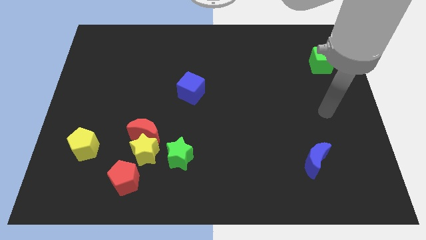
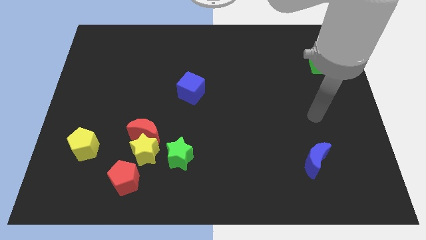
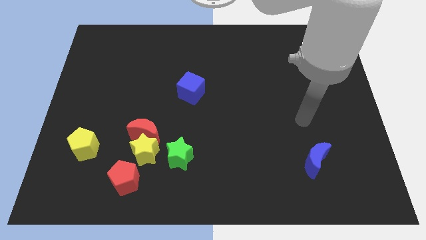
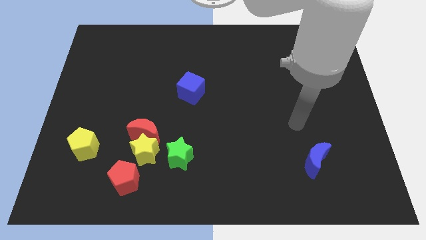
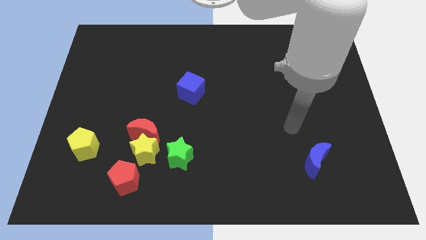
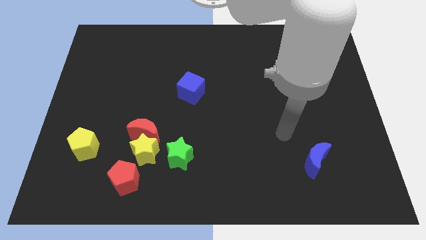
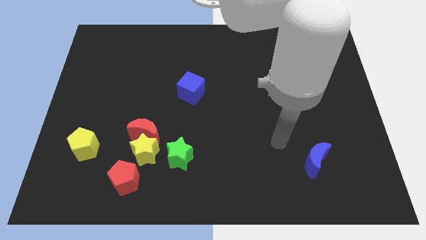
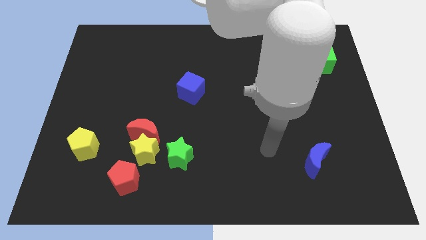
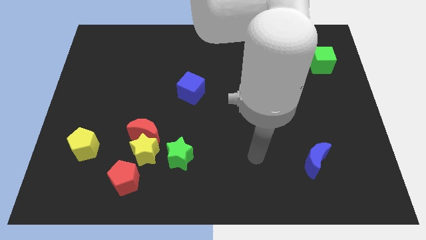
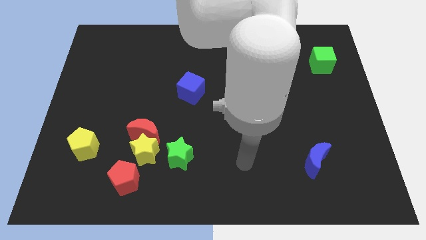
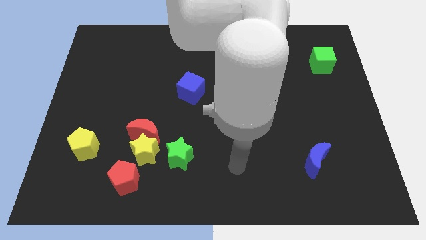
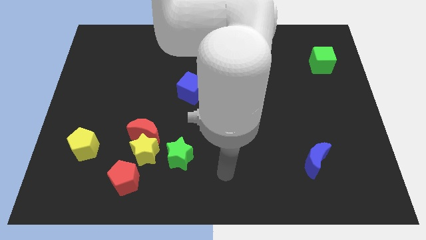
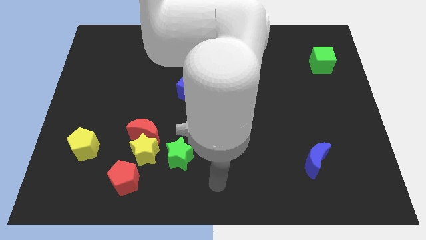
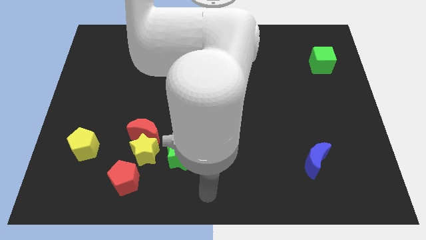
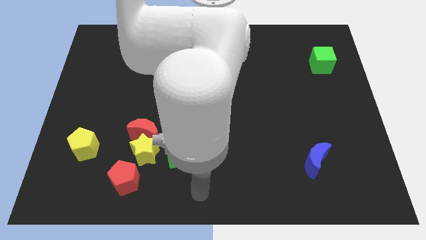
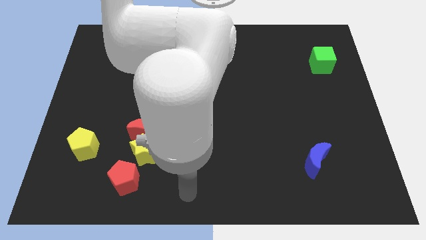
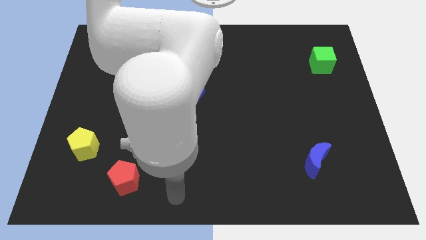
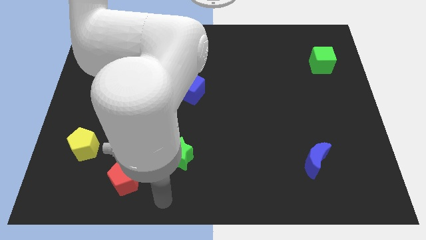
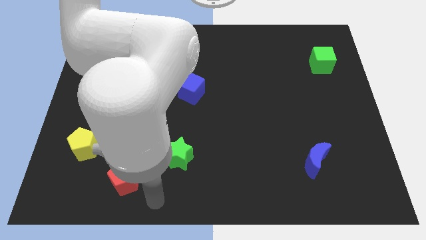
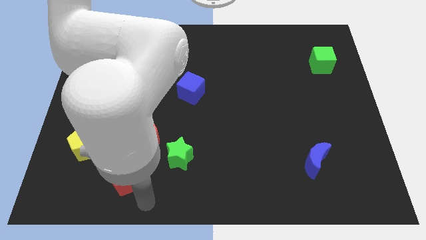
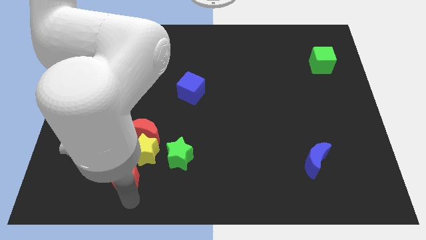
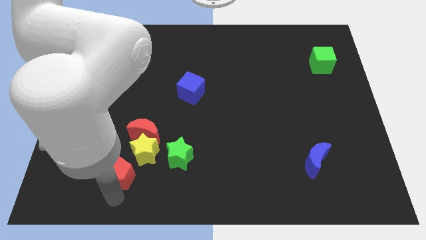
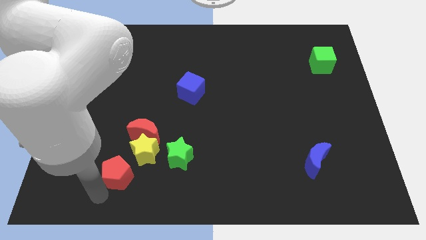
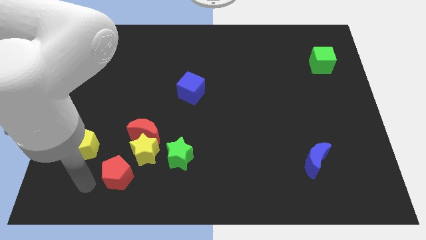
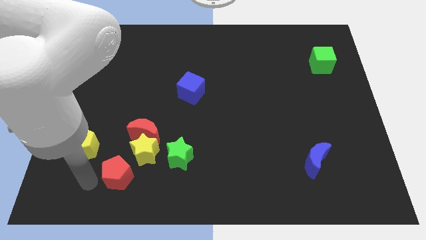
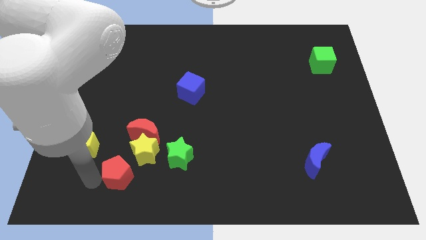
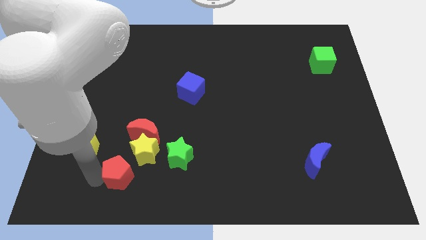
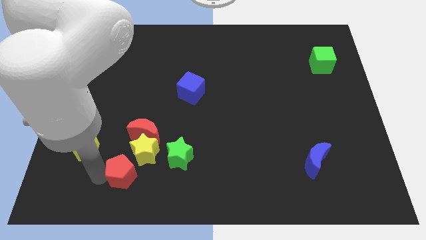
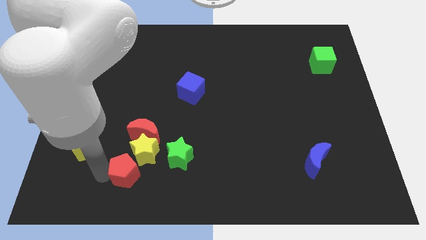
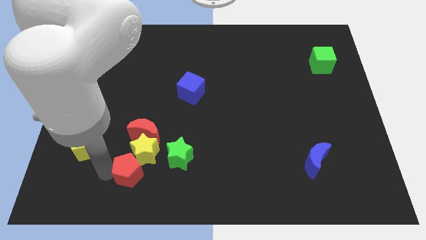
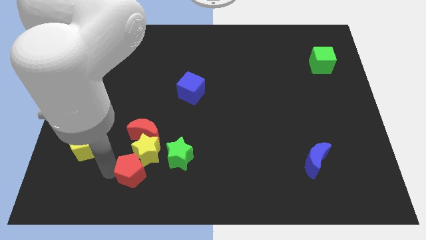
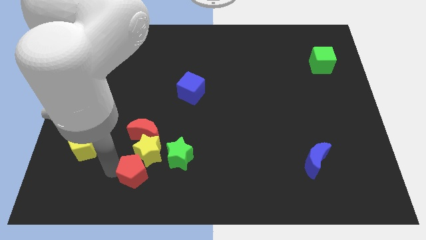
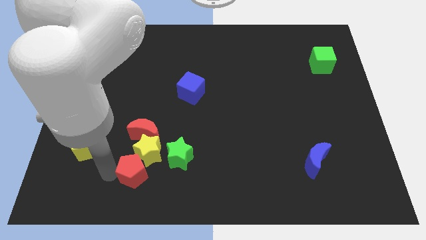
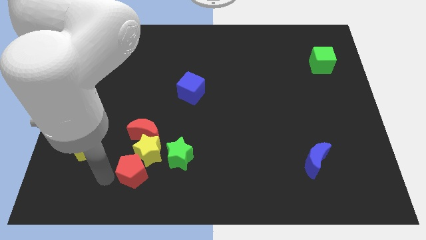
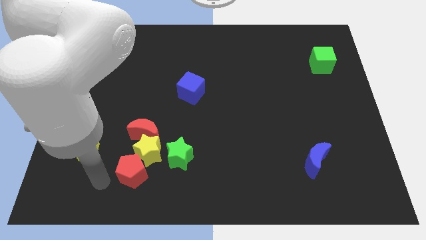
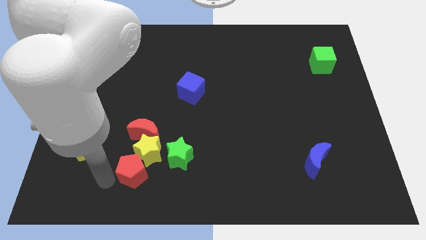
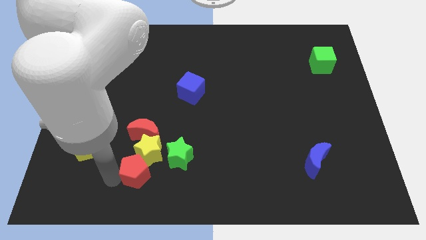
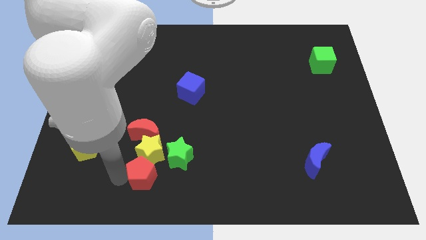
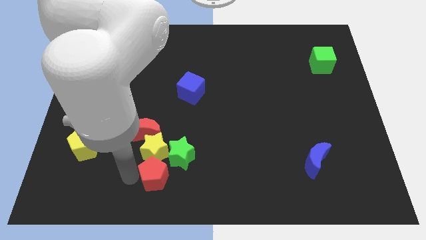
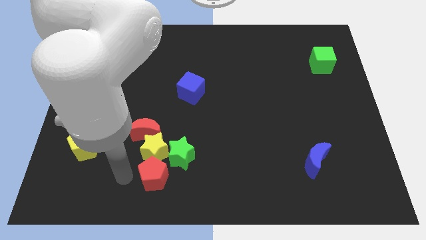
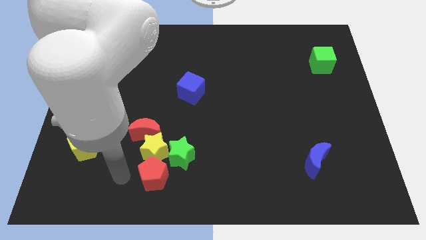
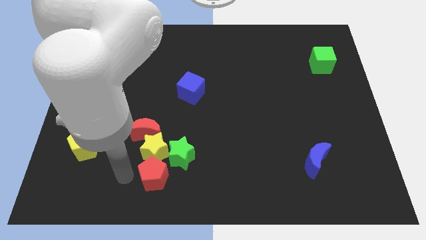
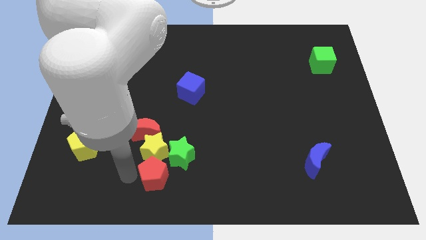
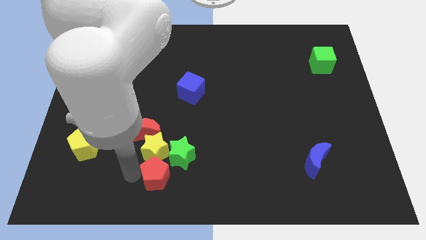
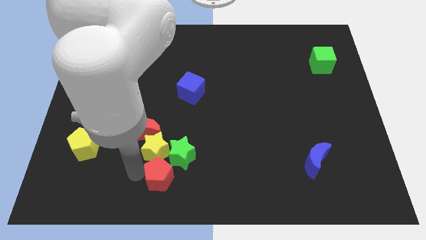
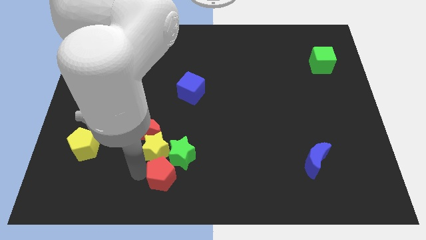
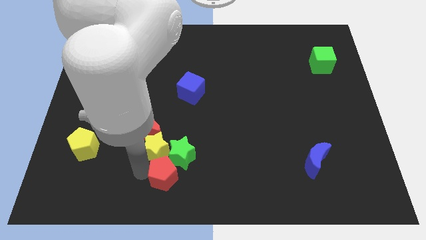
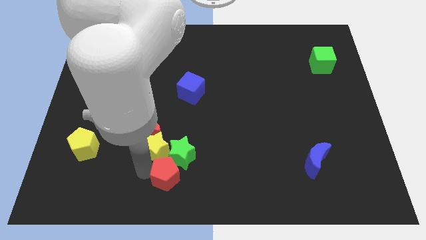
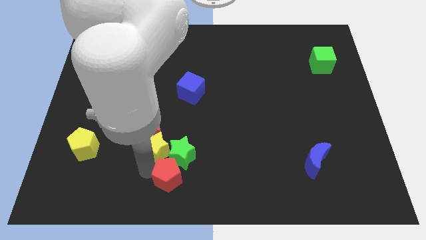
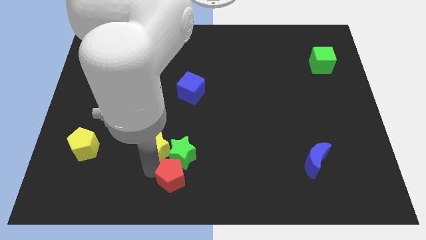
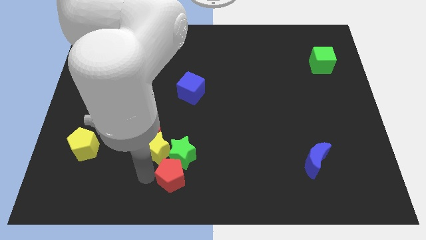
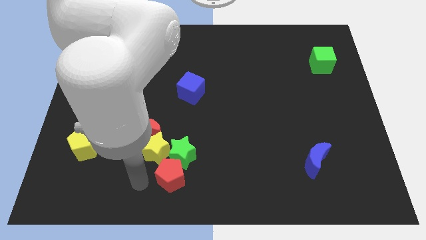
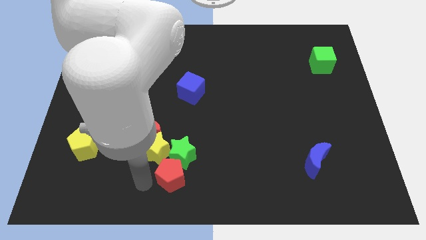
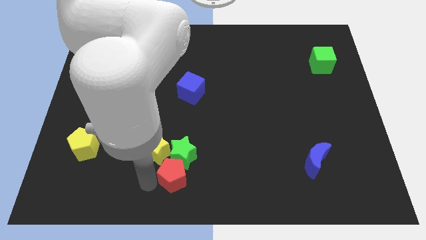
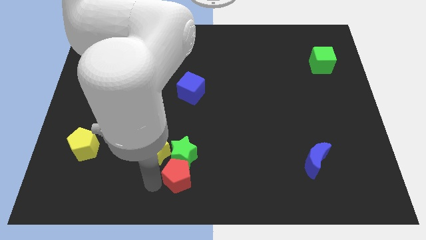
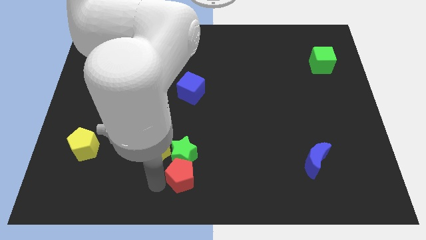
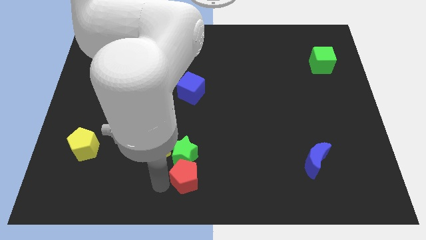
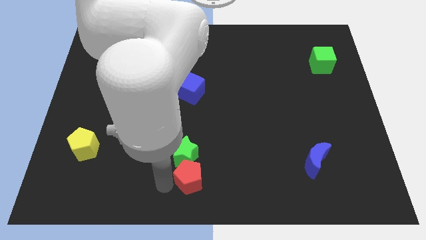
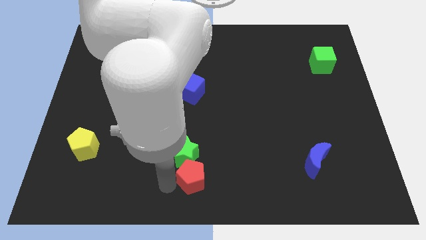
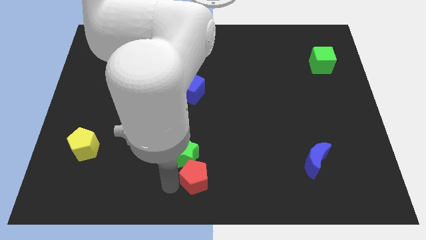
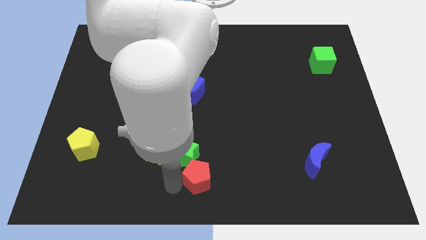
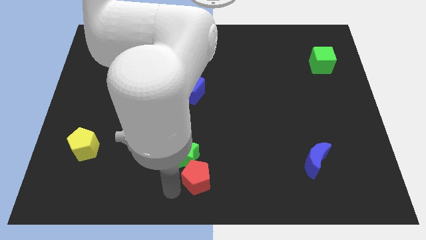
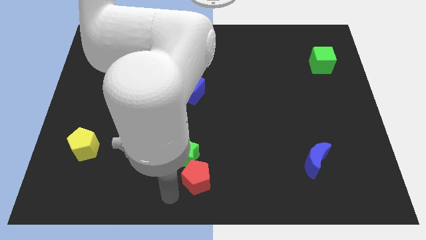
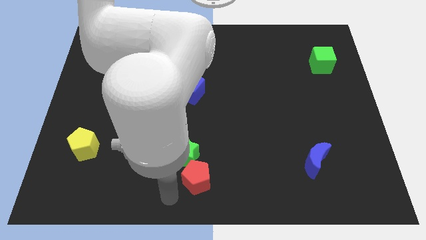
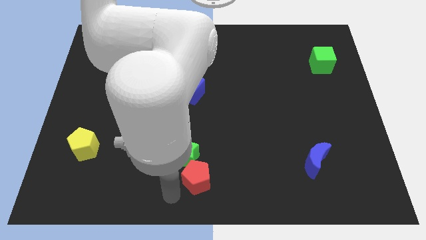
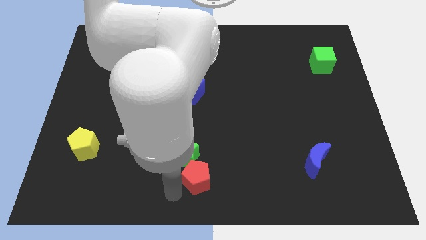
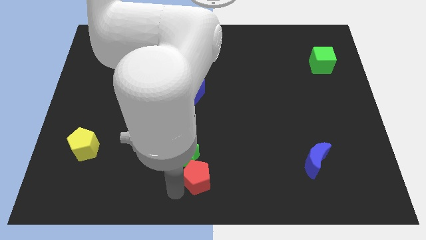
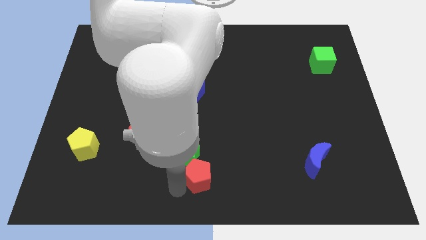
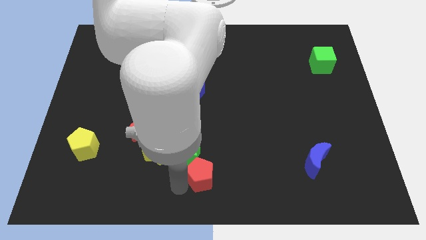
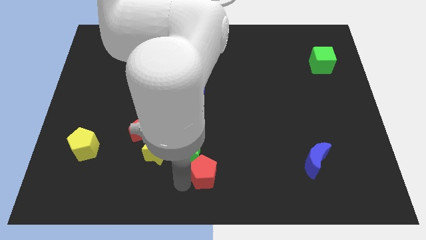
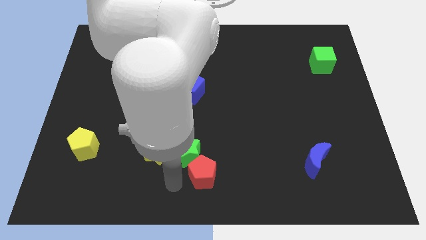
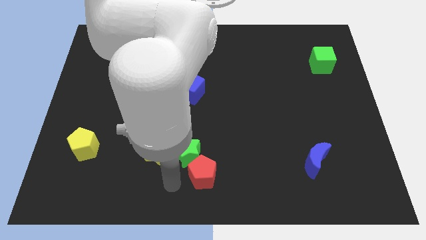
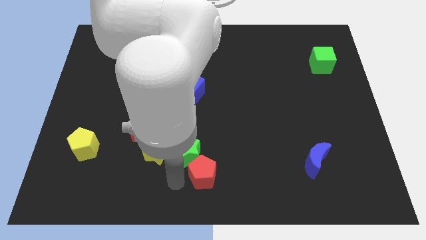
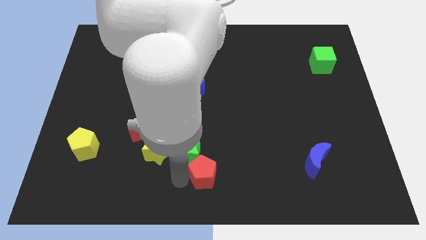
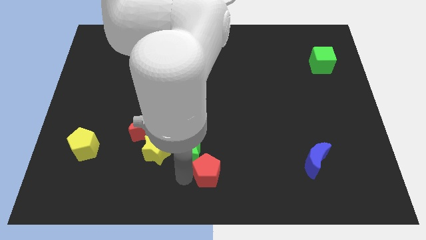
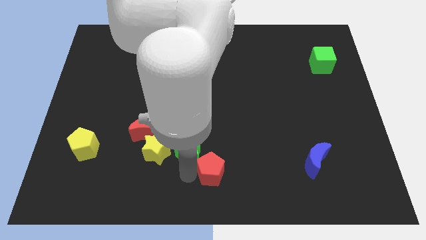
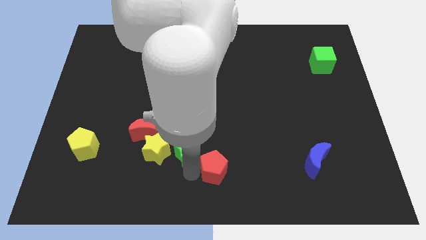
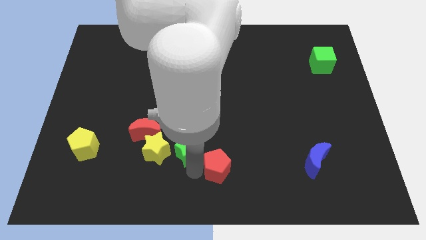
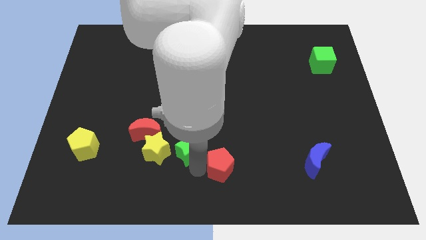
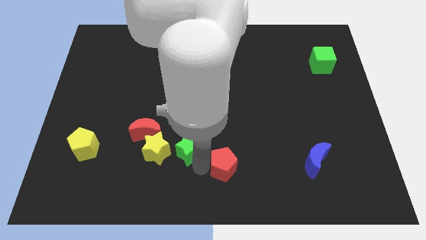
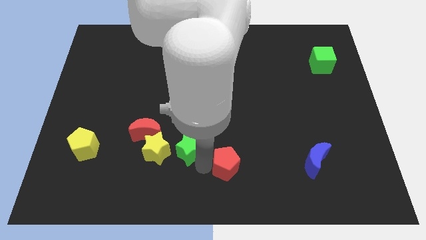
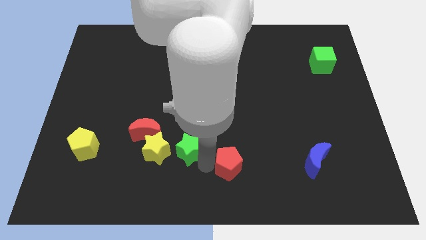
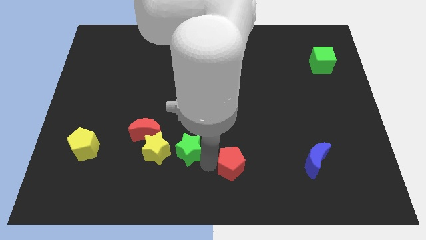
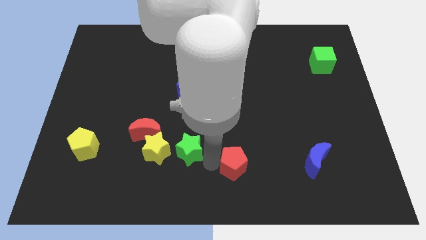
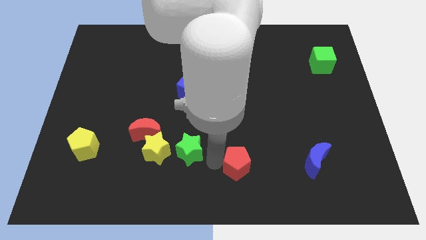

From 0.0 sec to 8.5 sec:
slide the red pentagon to the left of the blue moon

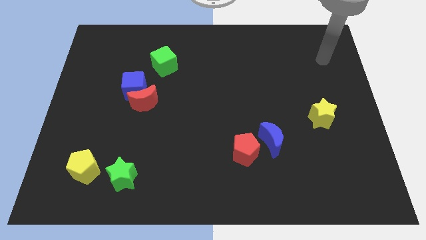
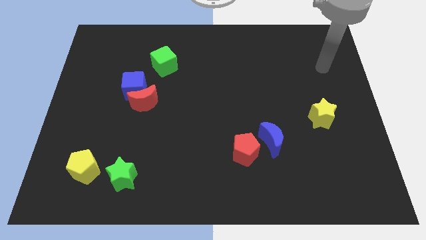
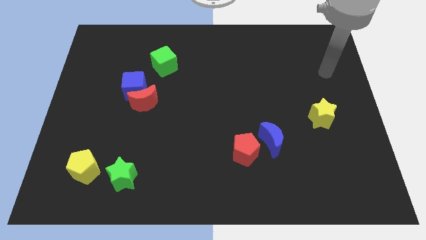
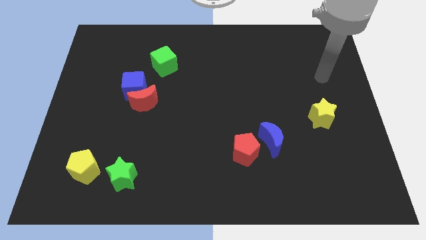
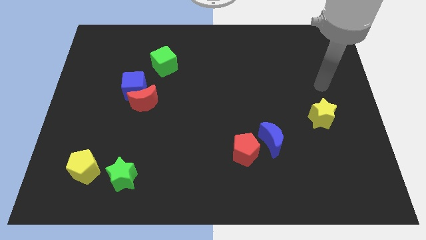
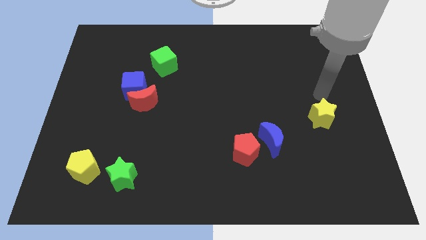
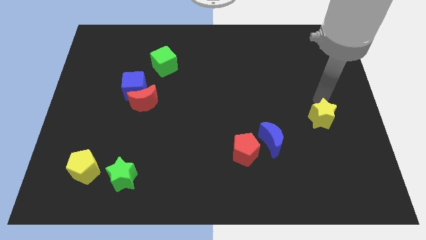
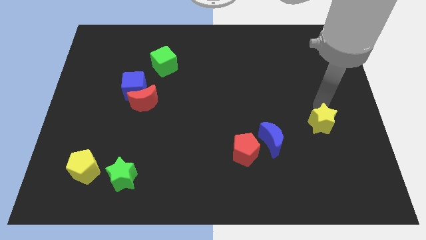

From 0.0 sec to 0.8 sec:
put the yellow star to the right of the blue moon
